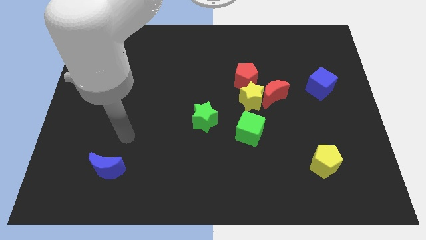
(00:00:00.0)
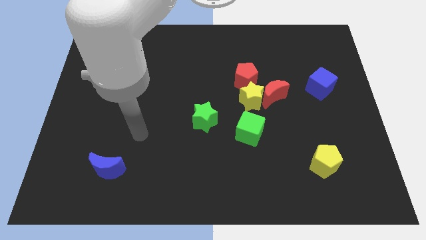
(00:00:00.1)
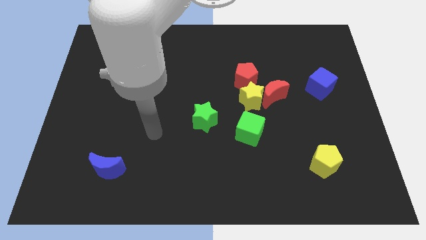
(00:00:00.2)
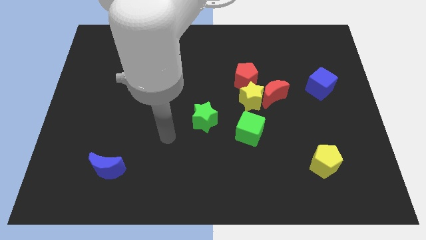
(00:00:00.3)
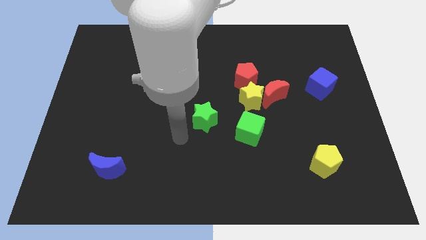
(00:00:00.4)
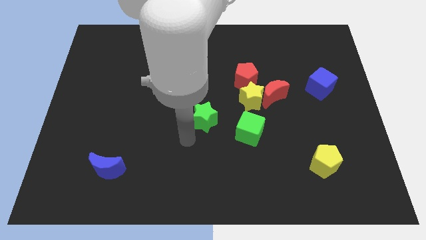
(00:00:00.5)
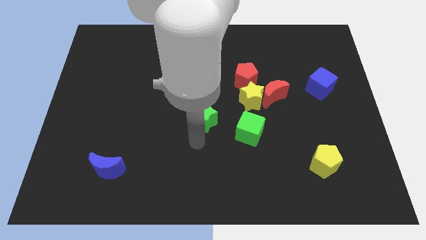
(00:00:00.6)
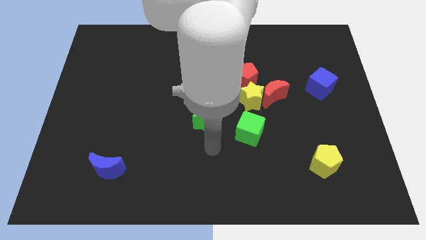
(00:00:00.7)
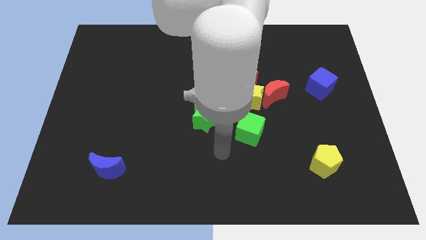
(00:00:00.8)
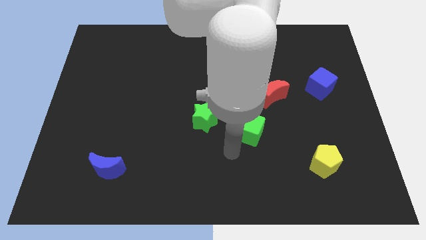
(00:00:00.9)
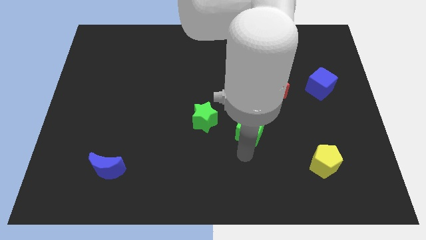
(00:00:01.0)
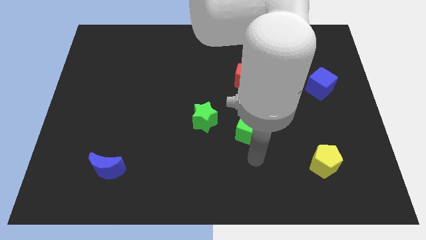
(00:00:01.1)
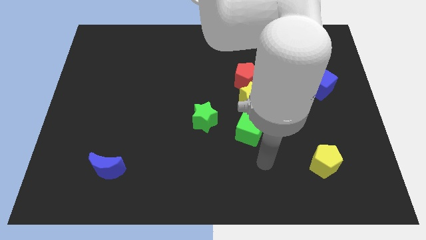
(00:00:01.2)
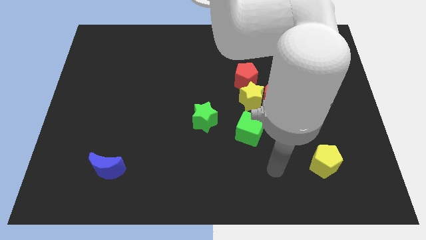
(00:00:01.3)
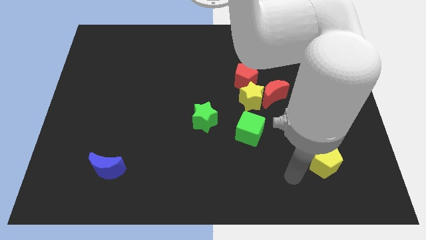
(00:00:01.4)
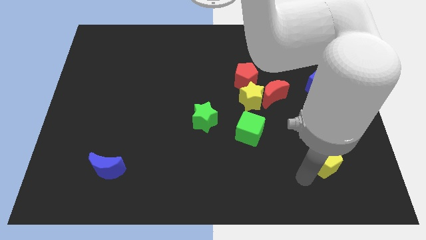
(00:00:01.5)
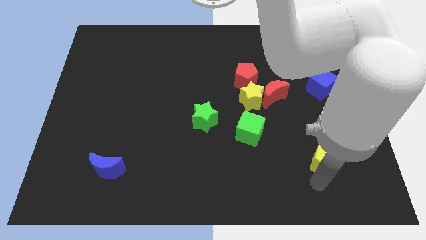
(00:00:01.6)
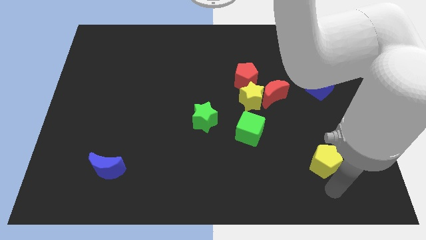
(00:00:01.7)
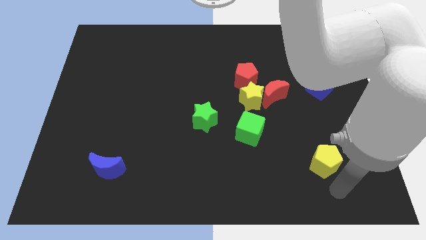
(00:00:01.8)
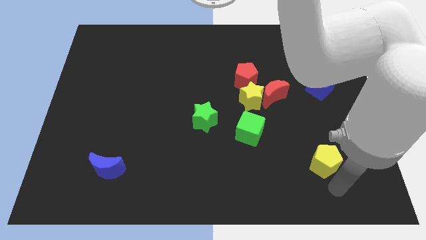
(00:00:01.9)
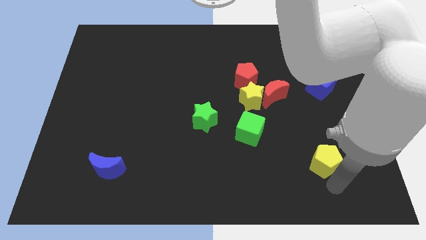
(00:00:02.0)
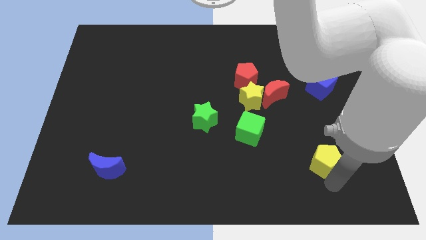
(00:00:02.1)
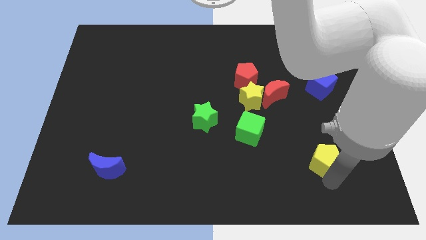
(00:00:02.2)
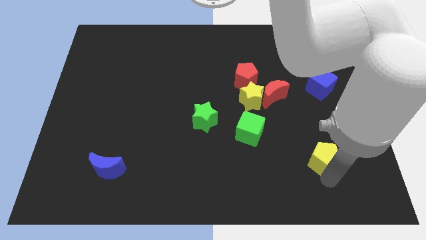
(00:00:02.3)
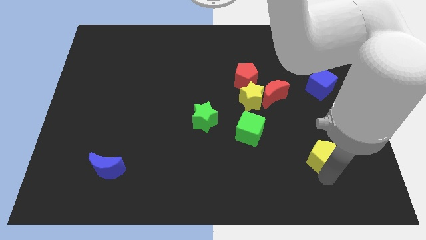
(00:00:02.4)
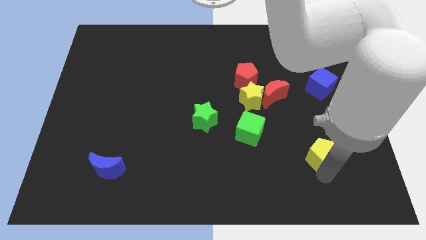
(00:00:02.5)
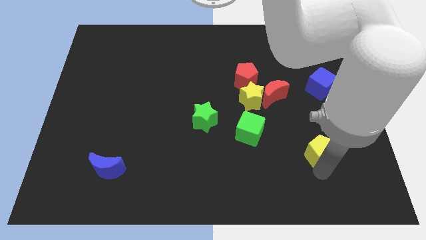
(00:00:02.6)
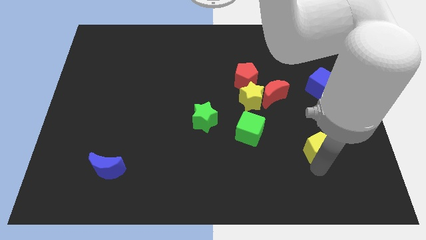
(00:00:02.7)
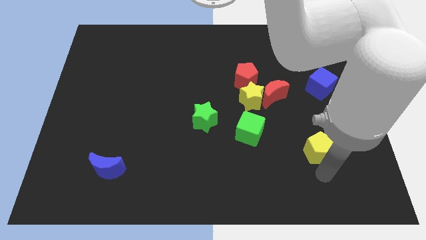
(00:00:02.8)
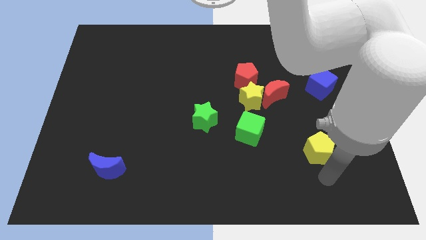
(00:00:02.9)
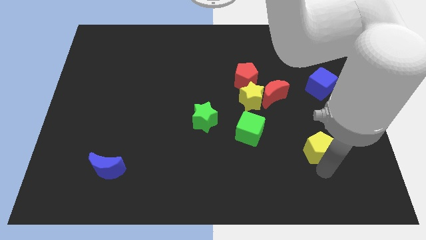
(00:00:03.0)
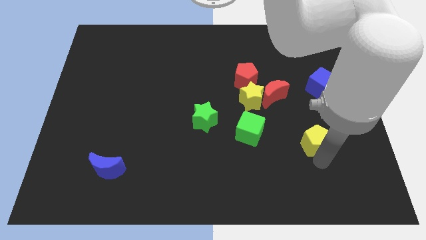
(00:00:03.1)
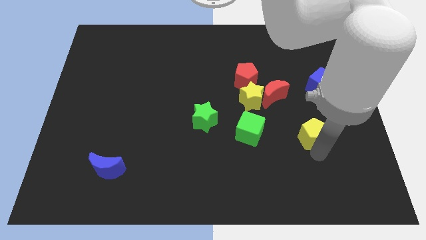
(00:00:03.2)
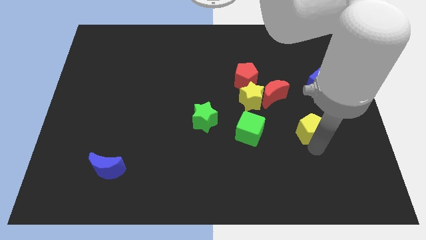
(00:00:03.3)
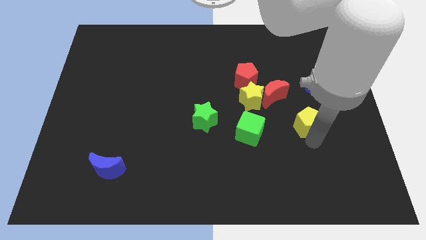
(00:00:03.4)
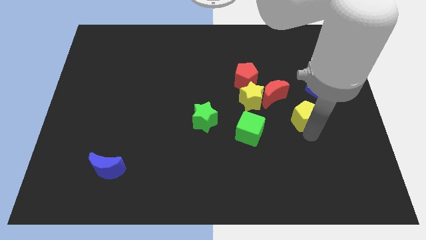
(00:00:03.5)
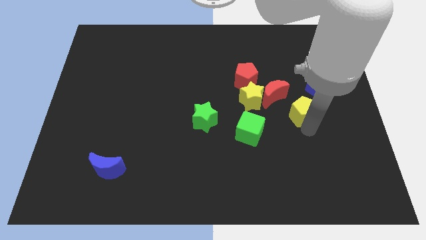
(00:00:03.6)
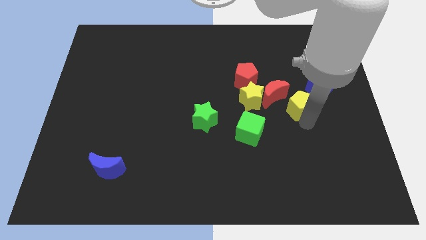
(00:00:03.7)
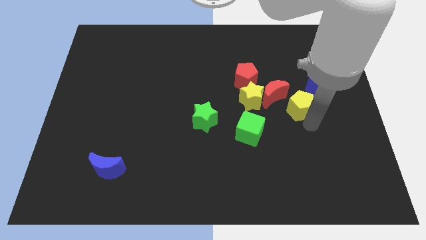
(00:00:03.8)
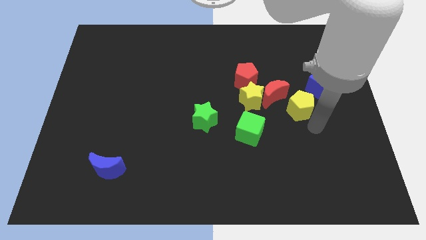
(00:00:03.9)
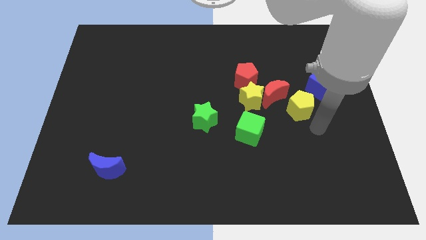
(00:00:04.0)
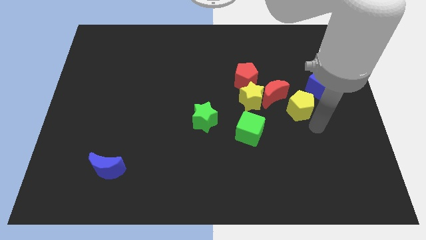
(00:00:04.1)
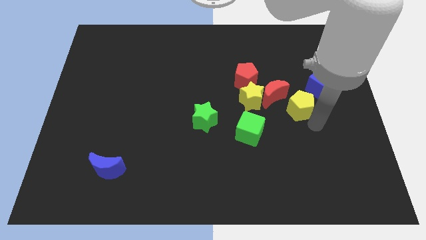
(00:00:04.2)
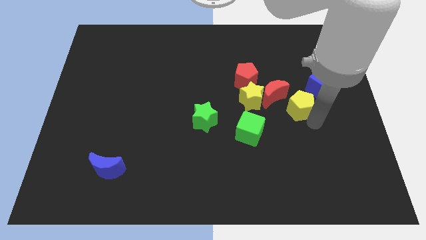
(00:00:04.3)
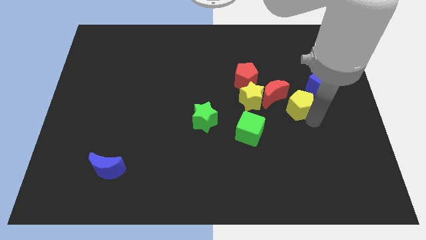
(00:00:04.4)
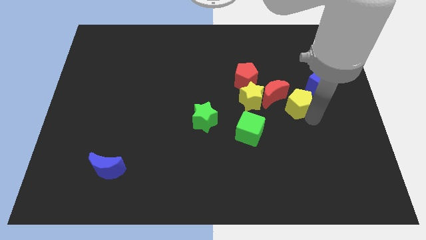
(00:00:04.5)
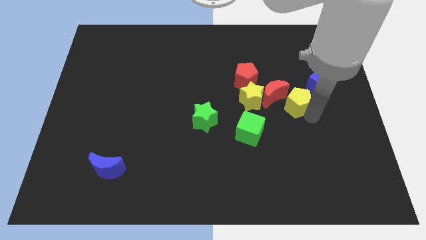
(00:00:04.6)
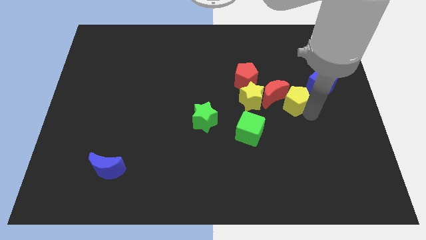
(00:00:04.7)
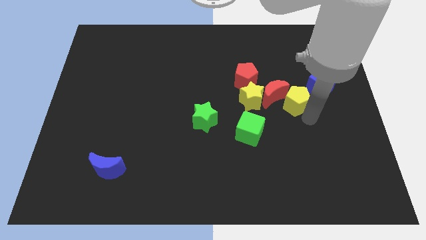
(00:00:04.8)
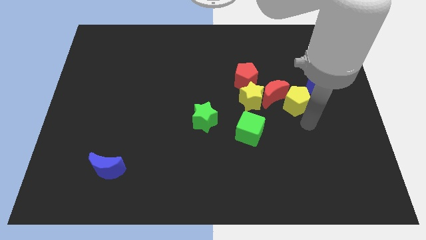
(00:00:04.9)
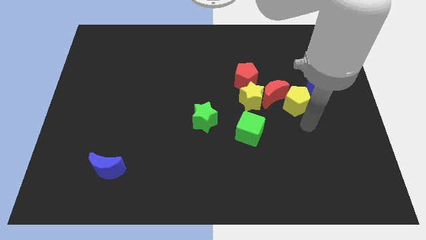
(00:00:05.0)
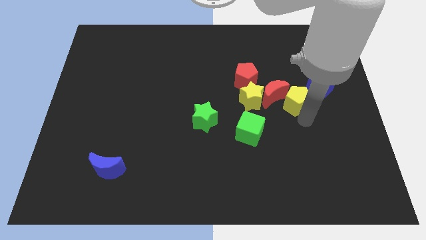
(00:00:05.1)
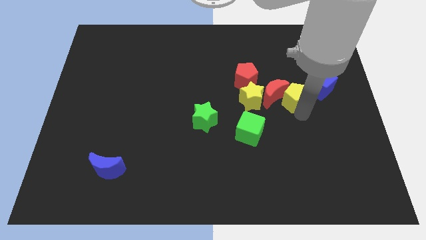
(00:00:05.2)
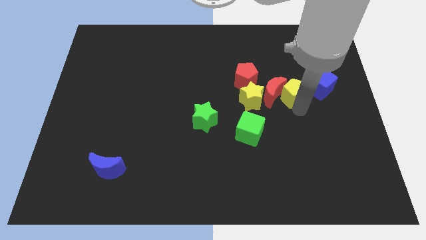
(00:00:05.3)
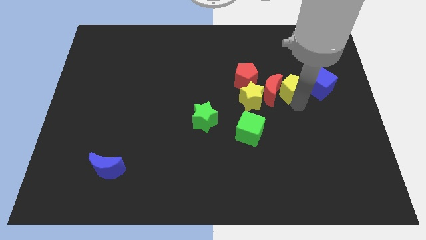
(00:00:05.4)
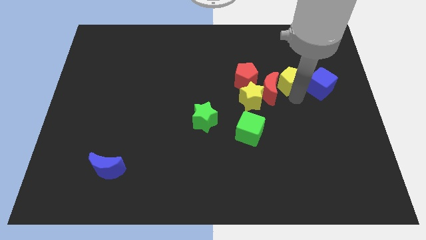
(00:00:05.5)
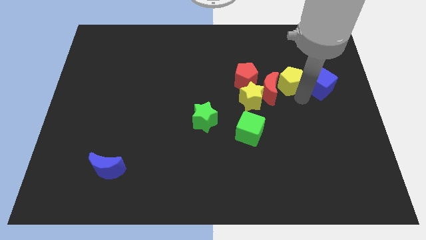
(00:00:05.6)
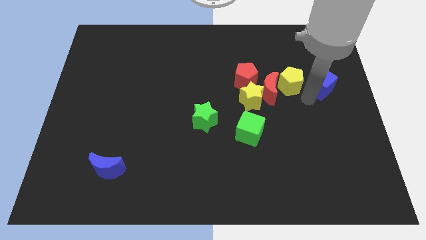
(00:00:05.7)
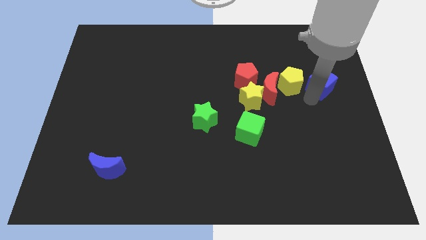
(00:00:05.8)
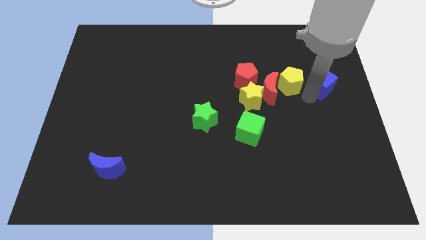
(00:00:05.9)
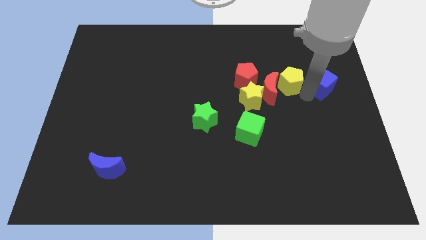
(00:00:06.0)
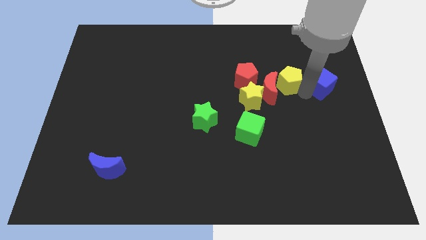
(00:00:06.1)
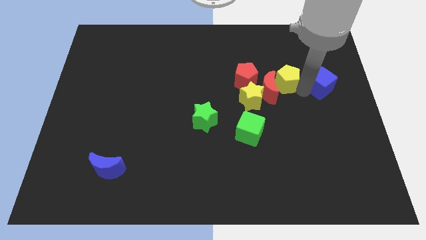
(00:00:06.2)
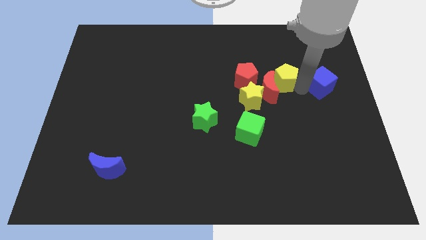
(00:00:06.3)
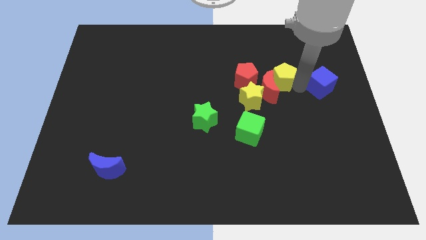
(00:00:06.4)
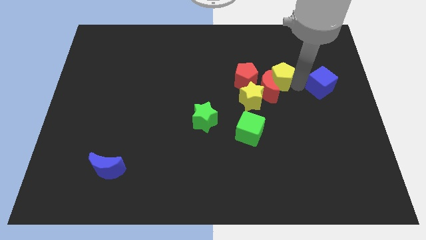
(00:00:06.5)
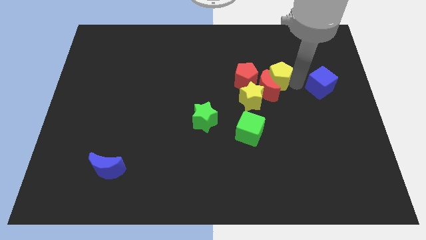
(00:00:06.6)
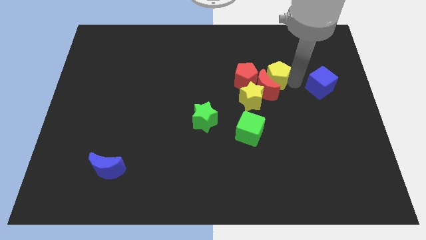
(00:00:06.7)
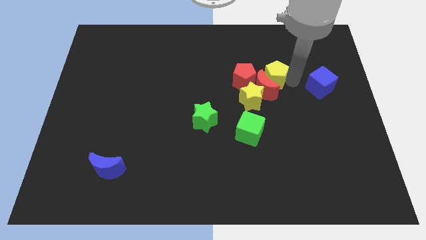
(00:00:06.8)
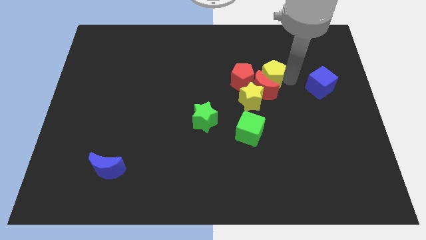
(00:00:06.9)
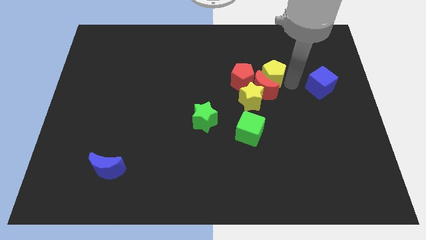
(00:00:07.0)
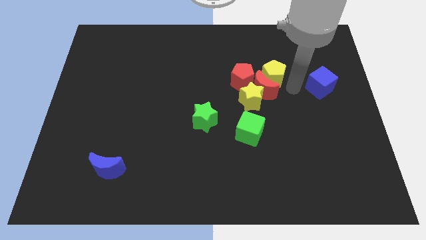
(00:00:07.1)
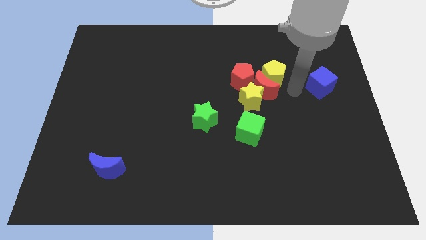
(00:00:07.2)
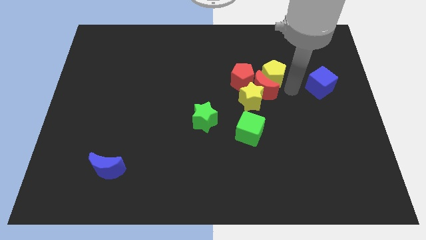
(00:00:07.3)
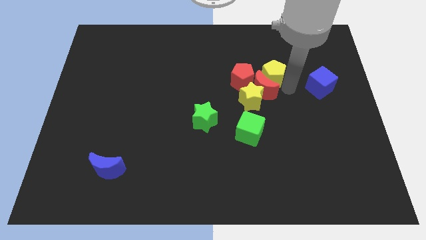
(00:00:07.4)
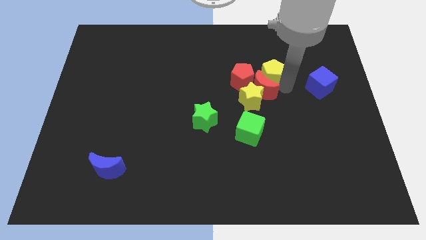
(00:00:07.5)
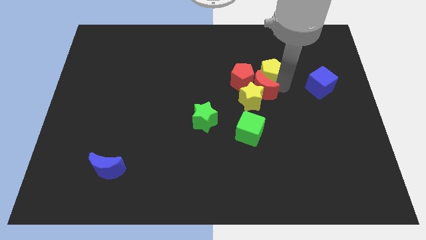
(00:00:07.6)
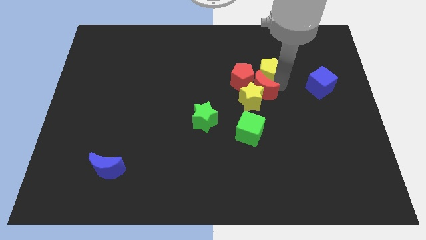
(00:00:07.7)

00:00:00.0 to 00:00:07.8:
put the yellow pentagon to the top of the yellow star
